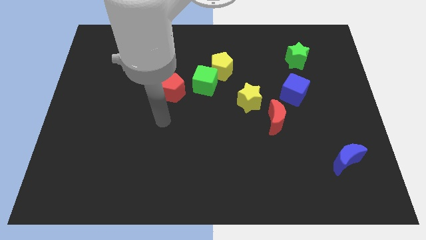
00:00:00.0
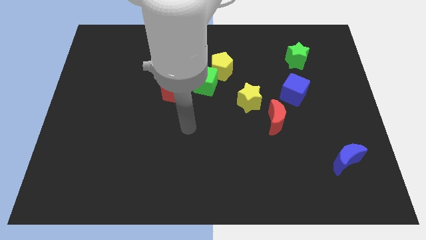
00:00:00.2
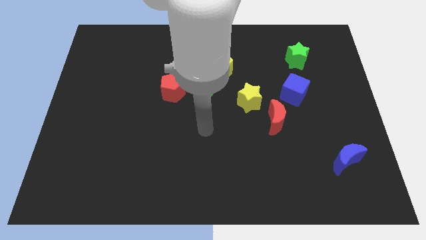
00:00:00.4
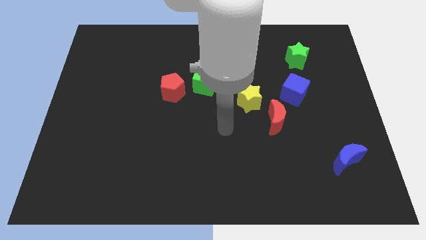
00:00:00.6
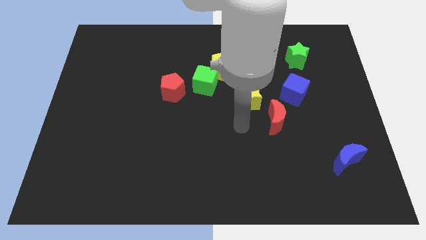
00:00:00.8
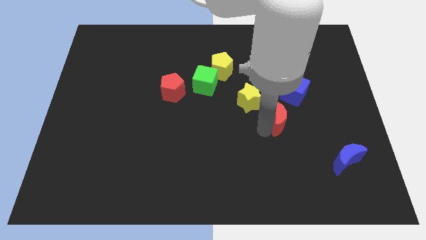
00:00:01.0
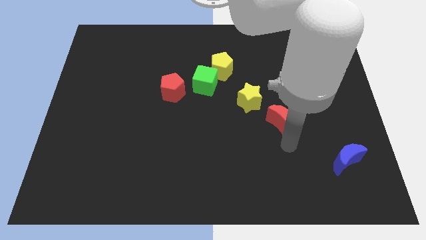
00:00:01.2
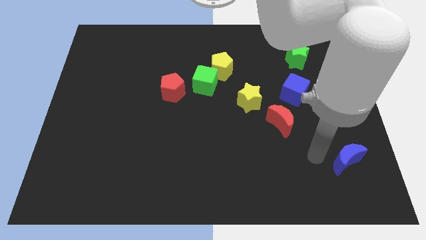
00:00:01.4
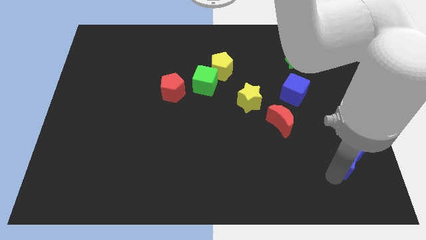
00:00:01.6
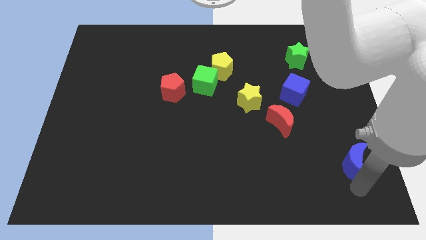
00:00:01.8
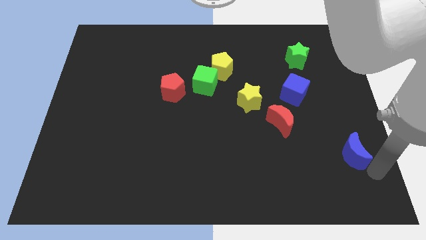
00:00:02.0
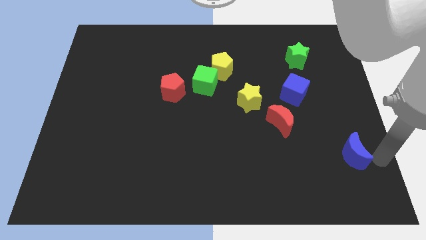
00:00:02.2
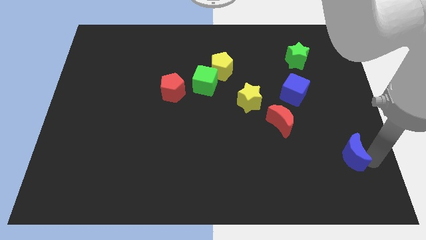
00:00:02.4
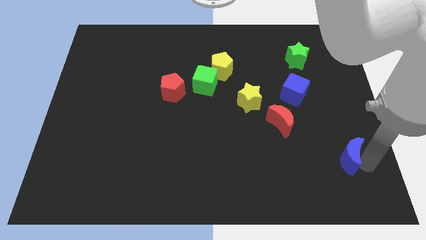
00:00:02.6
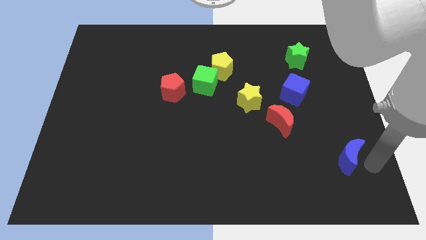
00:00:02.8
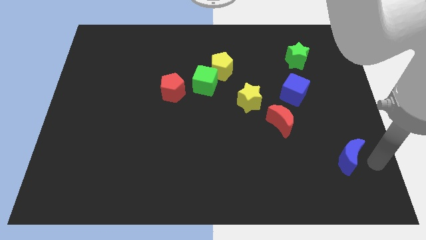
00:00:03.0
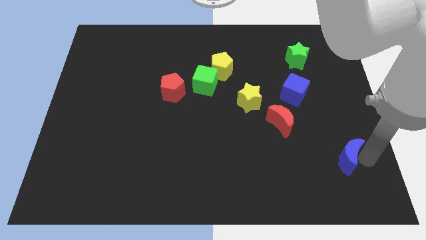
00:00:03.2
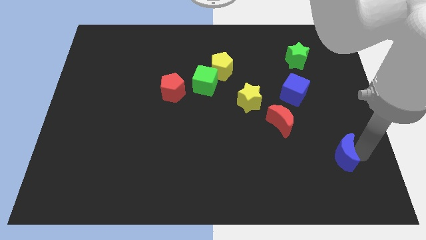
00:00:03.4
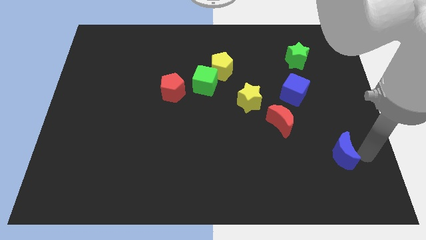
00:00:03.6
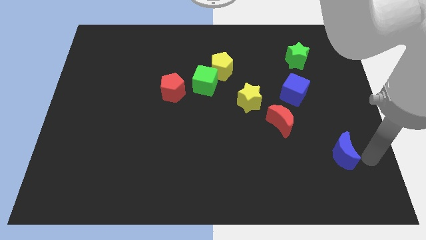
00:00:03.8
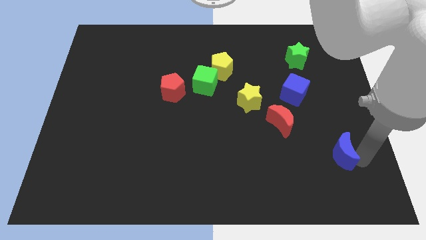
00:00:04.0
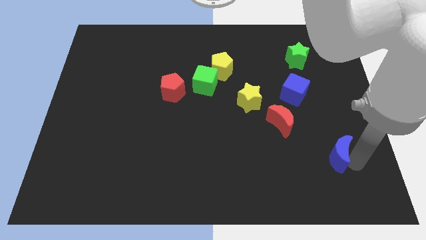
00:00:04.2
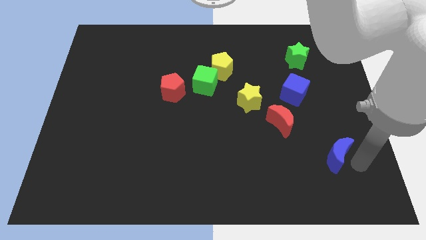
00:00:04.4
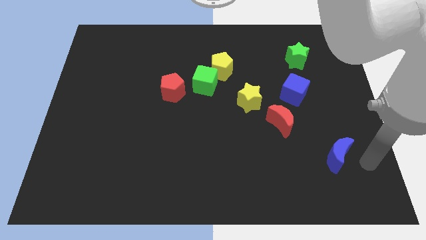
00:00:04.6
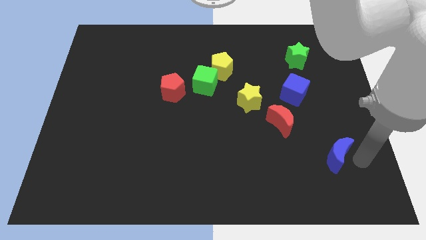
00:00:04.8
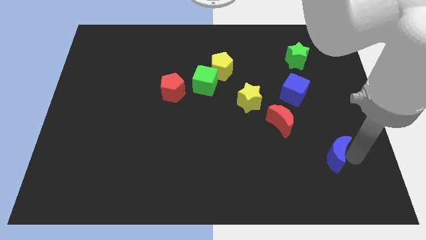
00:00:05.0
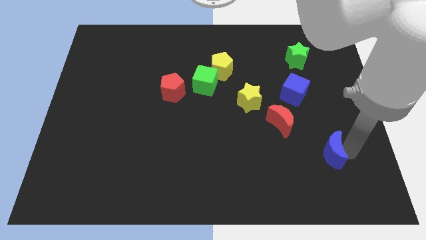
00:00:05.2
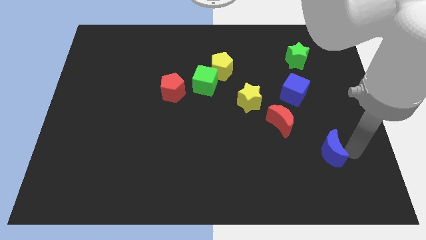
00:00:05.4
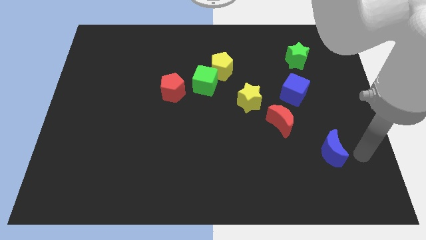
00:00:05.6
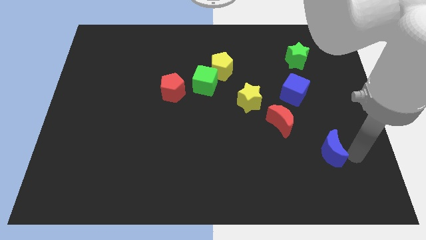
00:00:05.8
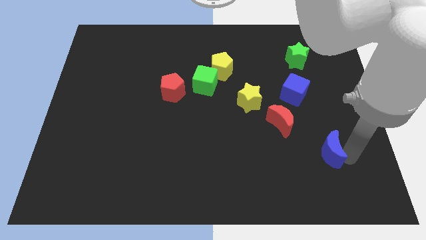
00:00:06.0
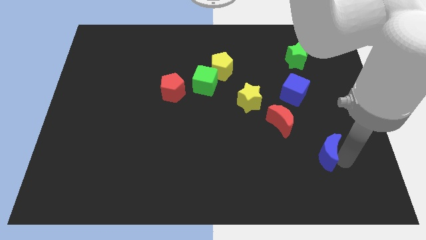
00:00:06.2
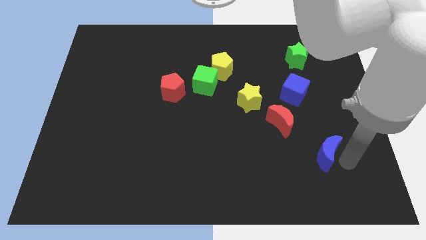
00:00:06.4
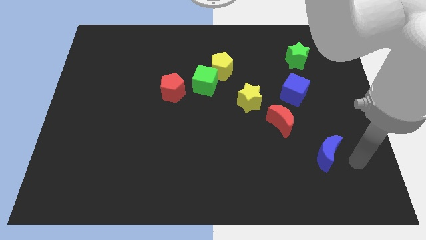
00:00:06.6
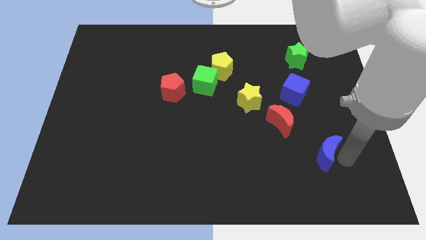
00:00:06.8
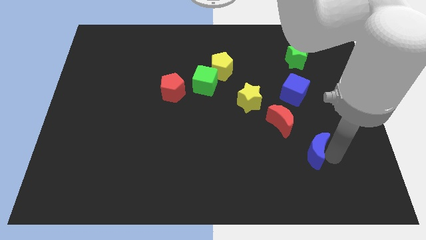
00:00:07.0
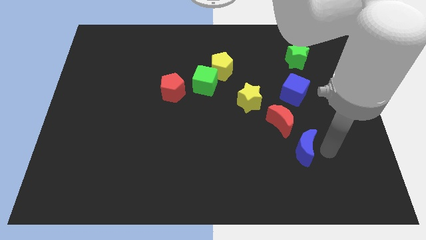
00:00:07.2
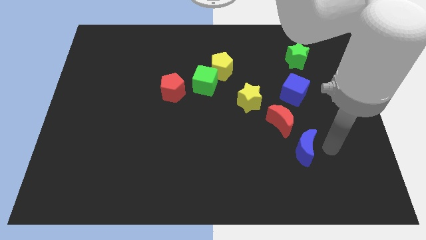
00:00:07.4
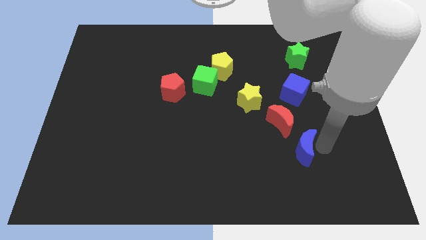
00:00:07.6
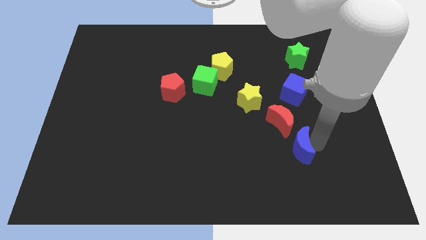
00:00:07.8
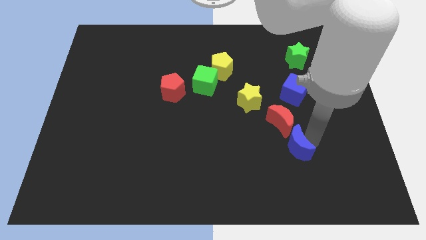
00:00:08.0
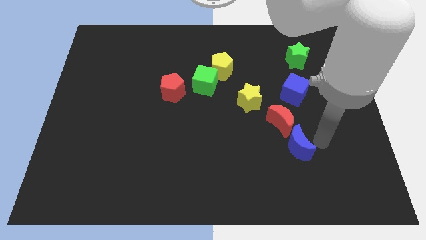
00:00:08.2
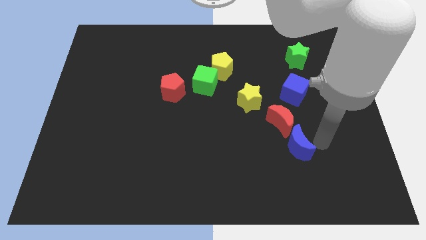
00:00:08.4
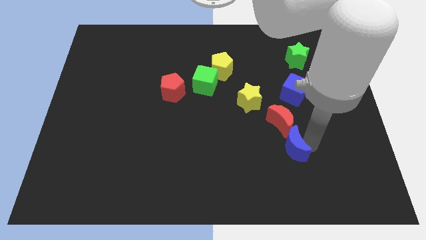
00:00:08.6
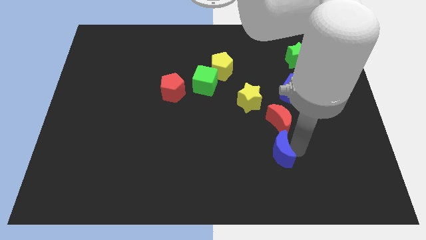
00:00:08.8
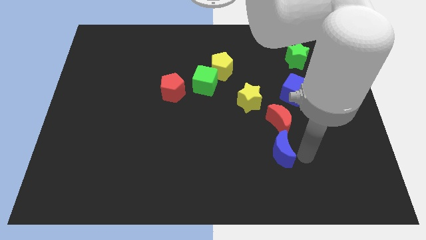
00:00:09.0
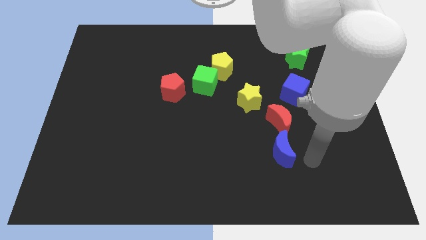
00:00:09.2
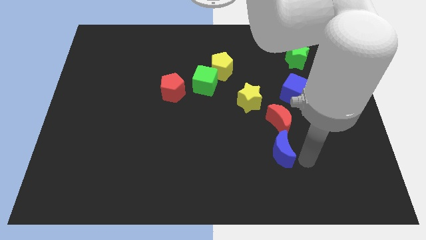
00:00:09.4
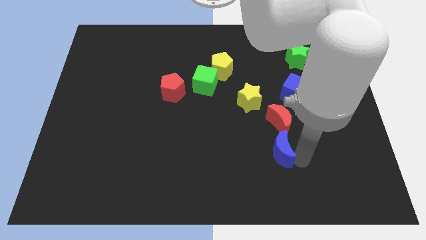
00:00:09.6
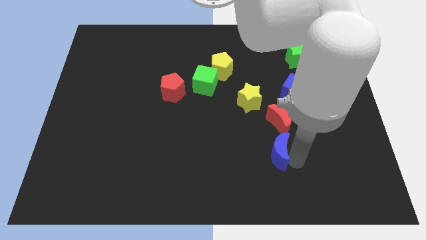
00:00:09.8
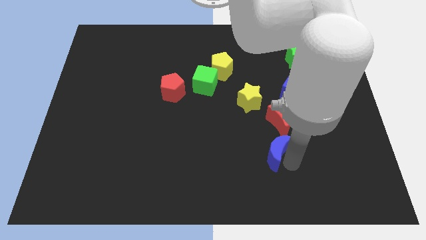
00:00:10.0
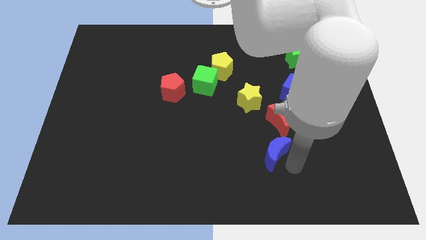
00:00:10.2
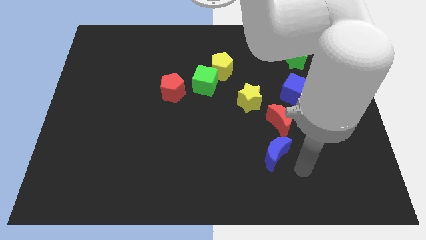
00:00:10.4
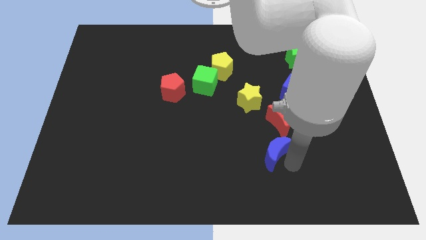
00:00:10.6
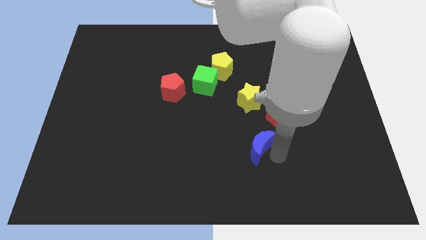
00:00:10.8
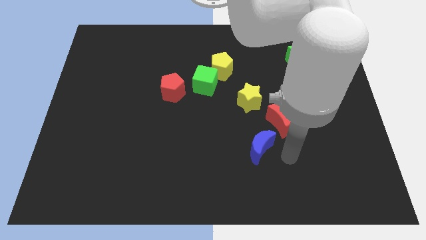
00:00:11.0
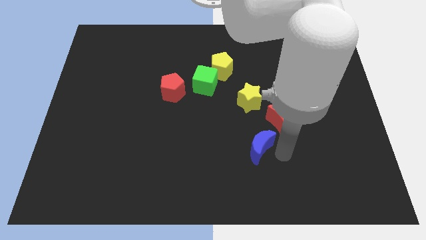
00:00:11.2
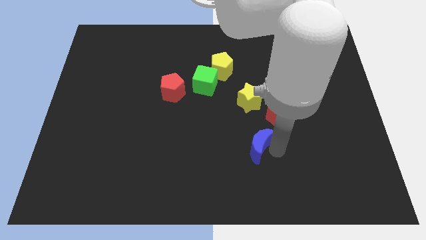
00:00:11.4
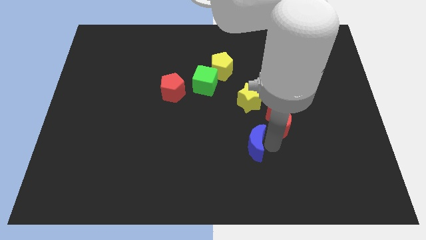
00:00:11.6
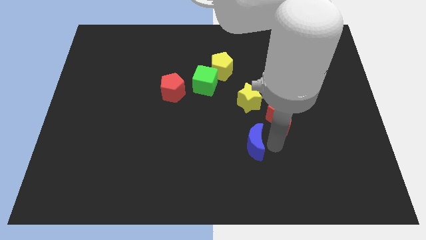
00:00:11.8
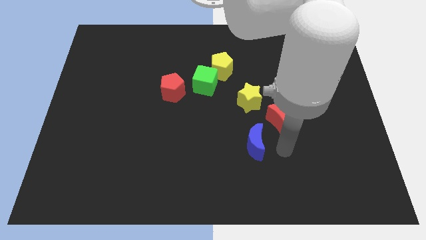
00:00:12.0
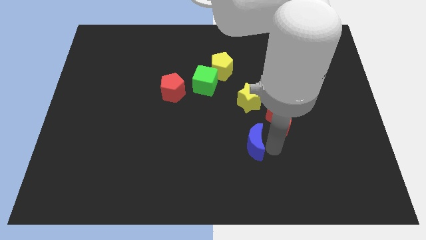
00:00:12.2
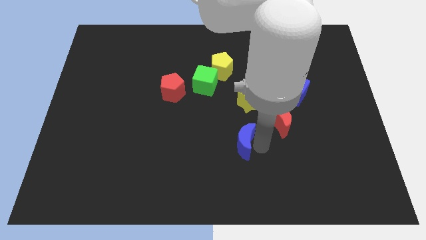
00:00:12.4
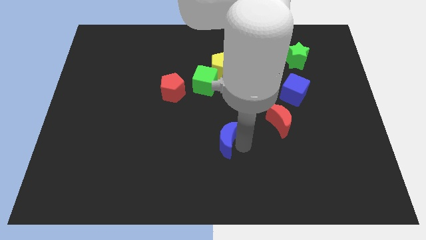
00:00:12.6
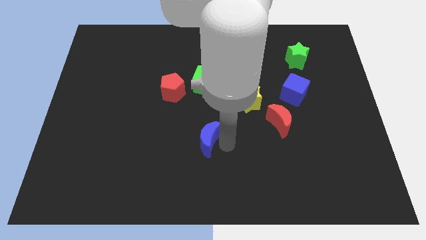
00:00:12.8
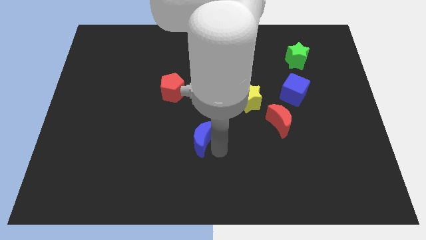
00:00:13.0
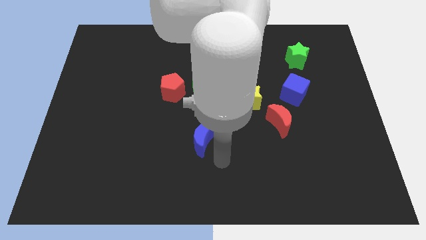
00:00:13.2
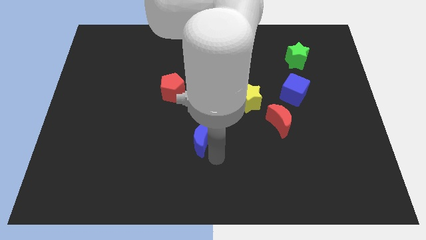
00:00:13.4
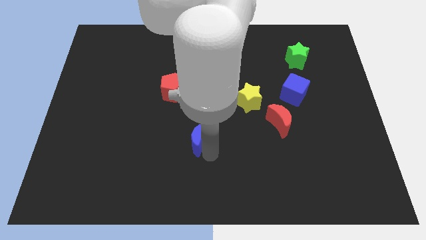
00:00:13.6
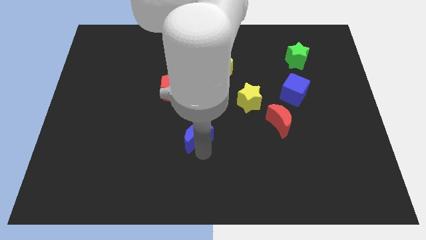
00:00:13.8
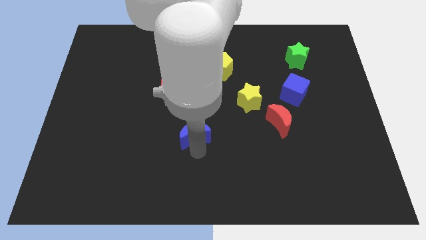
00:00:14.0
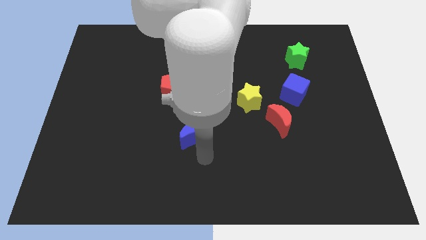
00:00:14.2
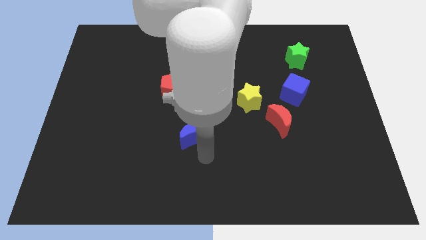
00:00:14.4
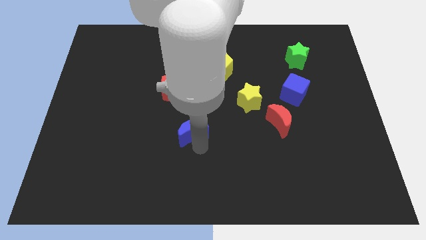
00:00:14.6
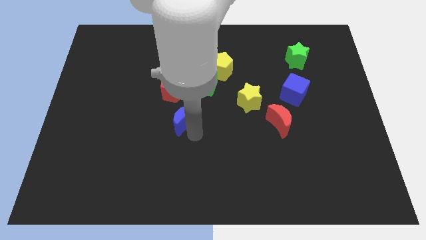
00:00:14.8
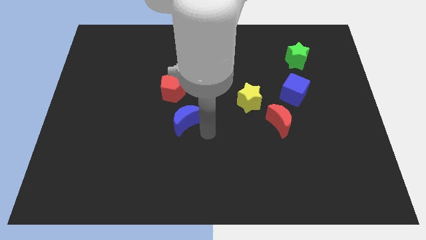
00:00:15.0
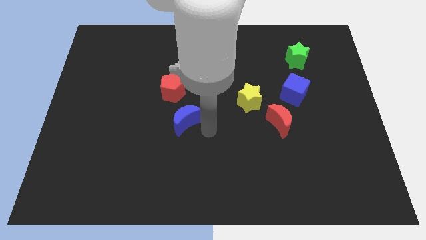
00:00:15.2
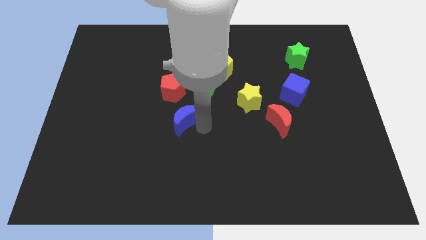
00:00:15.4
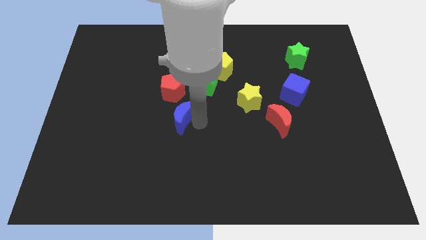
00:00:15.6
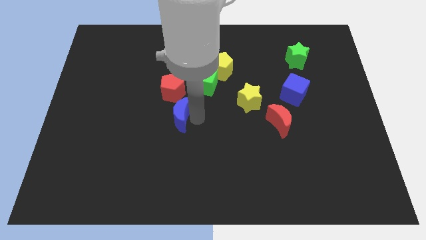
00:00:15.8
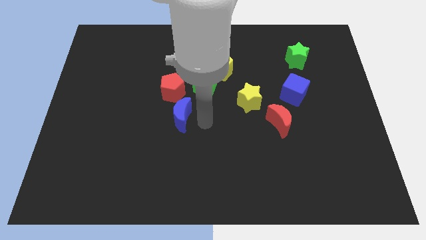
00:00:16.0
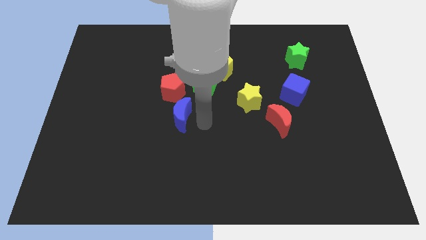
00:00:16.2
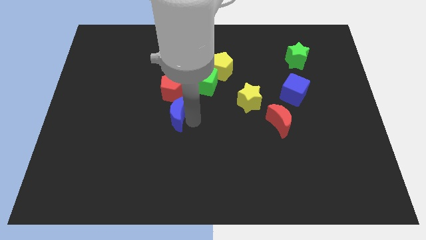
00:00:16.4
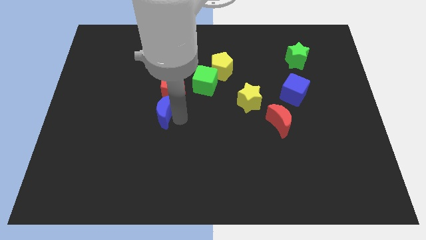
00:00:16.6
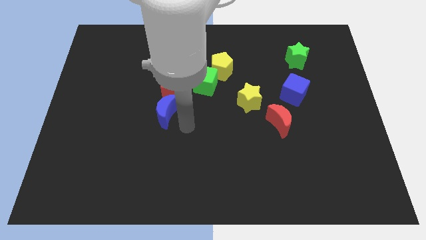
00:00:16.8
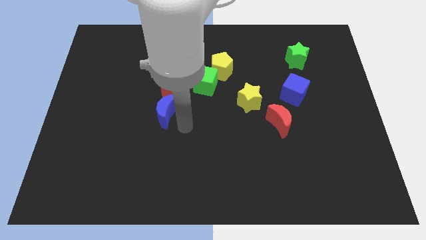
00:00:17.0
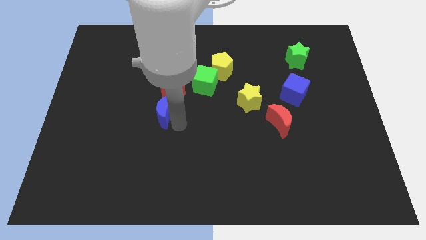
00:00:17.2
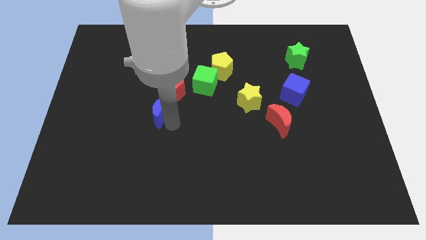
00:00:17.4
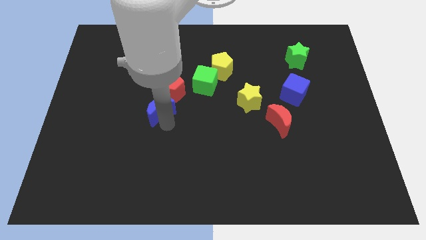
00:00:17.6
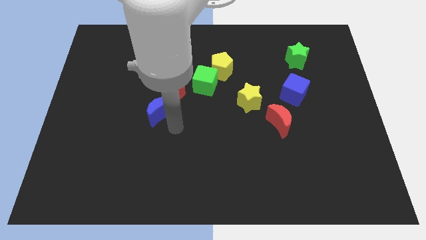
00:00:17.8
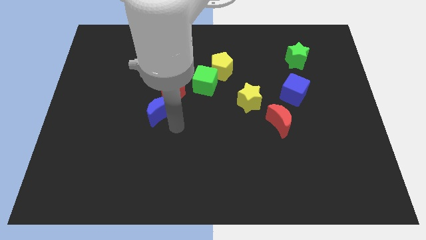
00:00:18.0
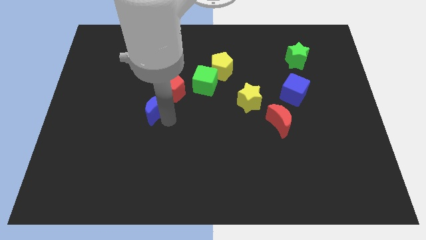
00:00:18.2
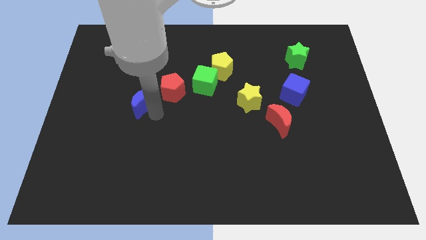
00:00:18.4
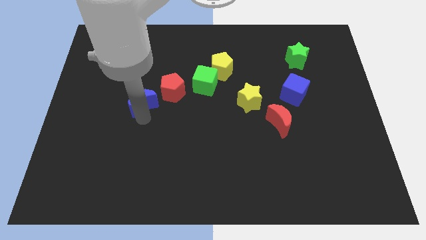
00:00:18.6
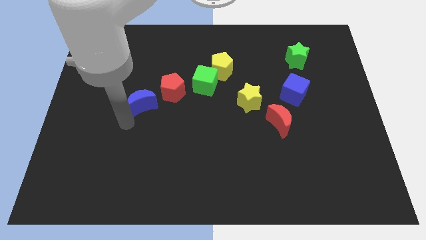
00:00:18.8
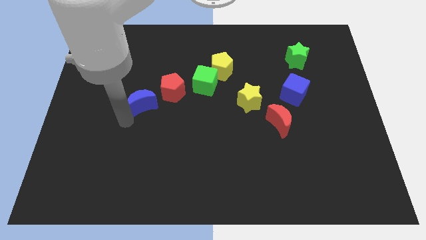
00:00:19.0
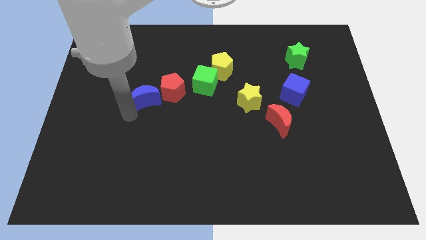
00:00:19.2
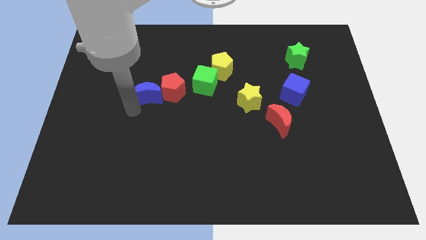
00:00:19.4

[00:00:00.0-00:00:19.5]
push the blue moon to the left of the green cube
